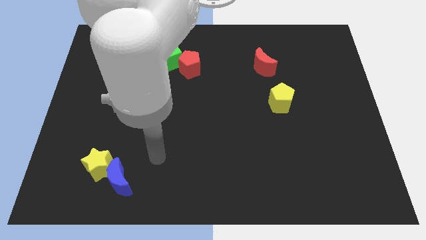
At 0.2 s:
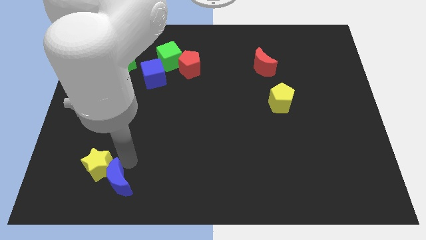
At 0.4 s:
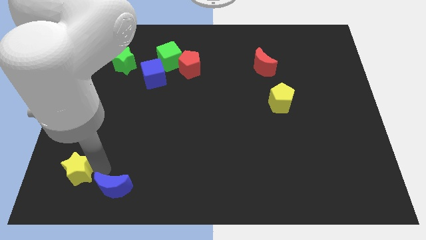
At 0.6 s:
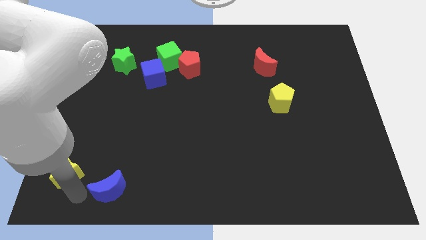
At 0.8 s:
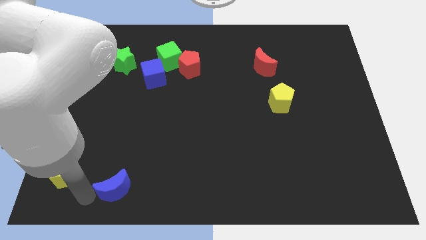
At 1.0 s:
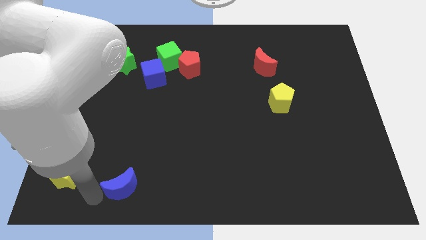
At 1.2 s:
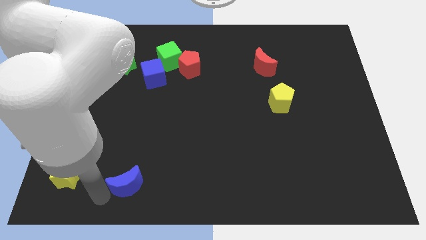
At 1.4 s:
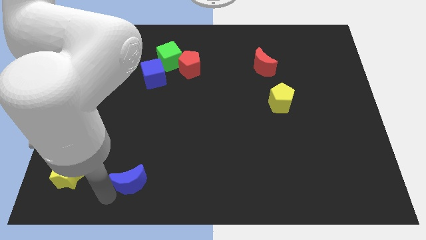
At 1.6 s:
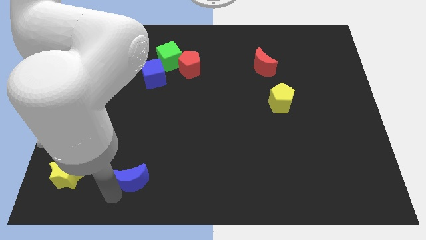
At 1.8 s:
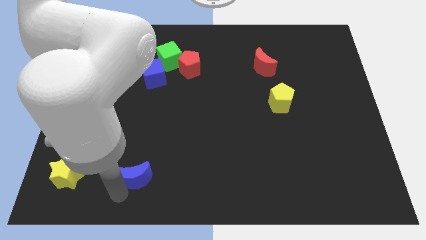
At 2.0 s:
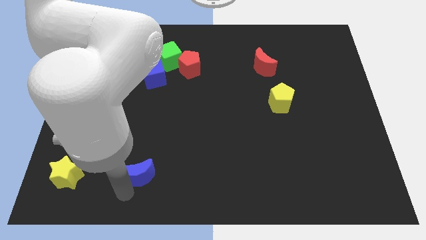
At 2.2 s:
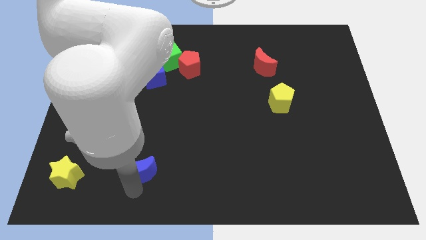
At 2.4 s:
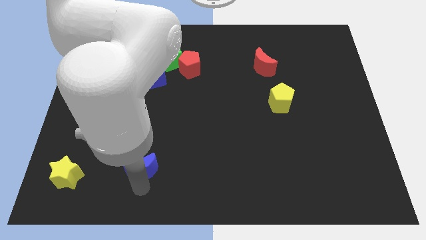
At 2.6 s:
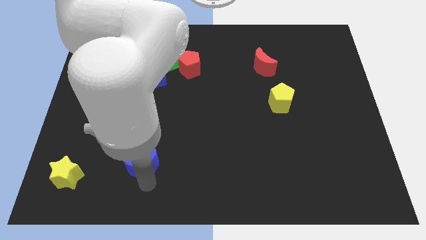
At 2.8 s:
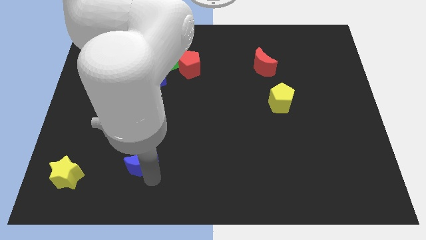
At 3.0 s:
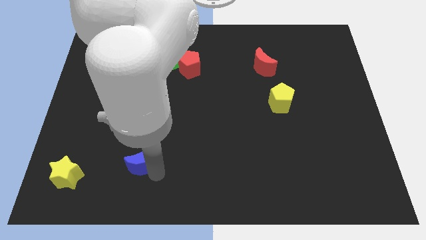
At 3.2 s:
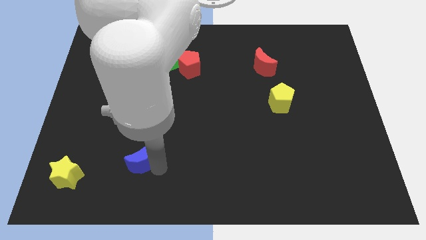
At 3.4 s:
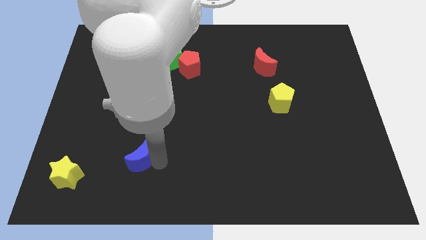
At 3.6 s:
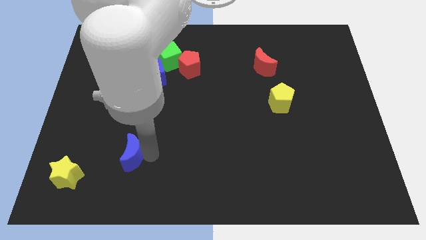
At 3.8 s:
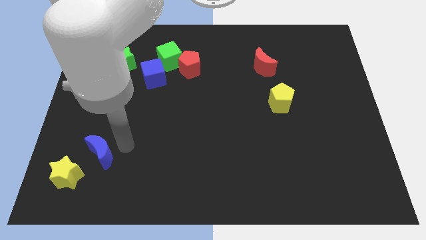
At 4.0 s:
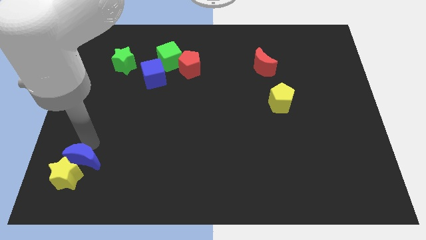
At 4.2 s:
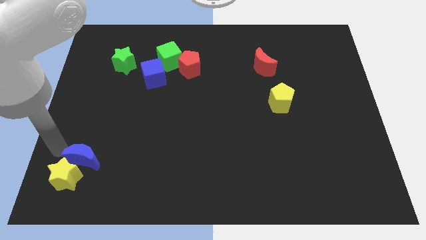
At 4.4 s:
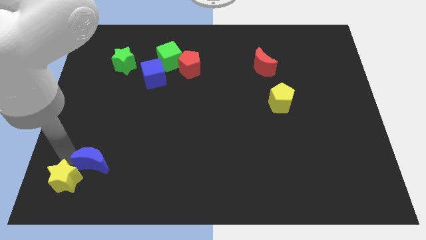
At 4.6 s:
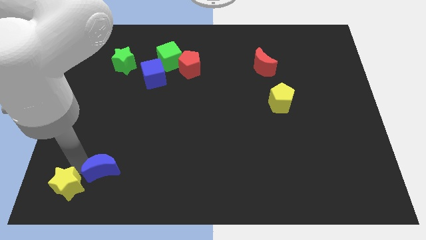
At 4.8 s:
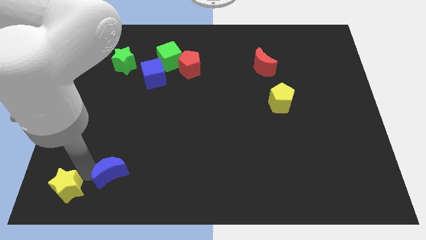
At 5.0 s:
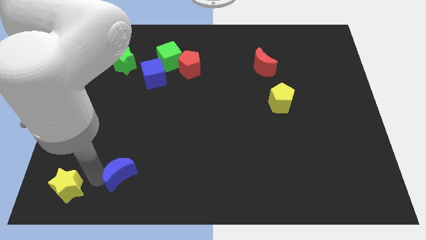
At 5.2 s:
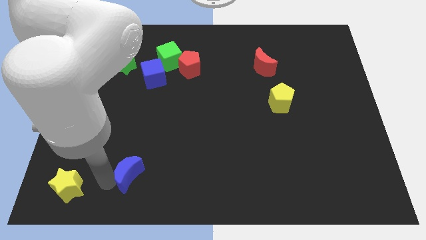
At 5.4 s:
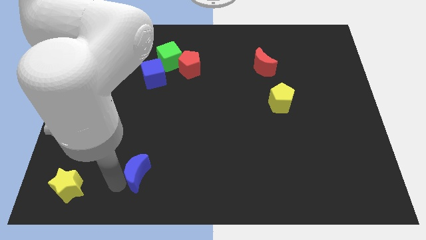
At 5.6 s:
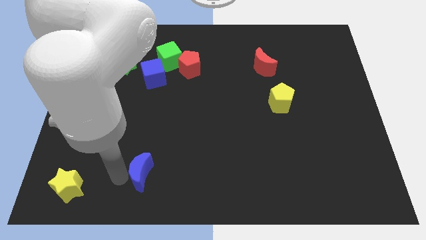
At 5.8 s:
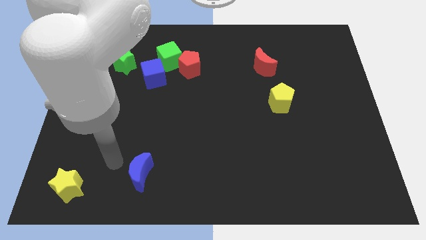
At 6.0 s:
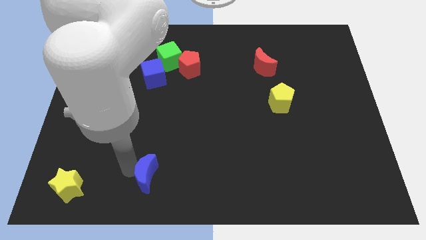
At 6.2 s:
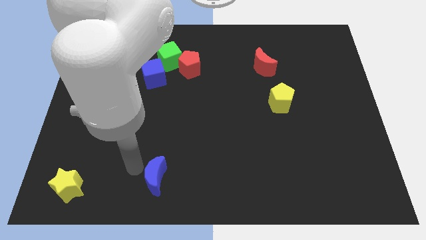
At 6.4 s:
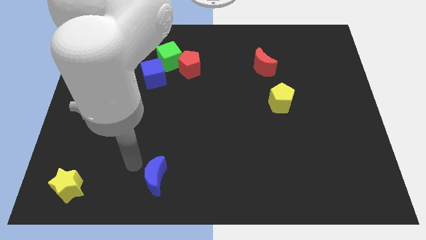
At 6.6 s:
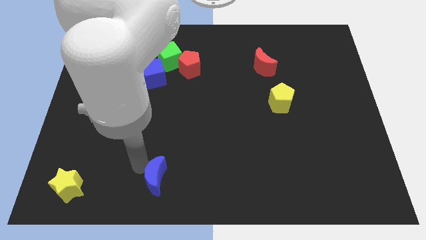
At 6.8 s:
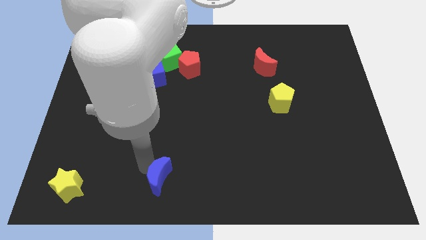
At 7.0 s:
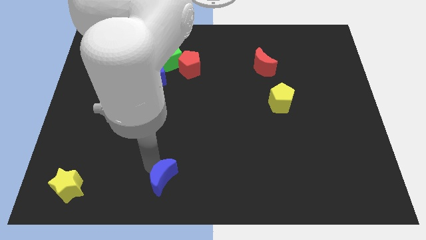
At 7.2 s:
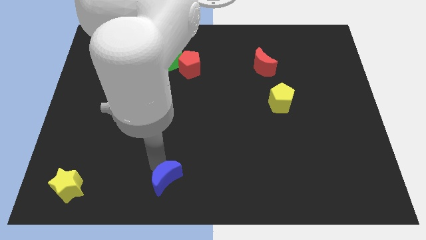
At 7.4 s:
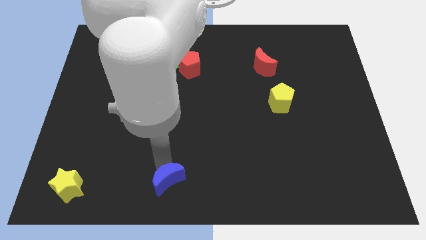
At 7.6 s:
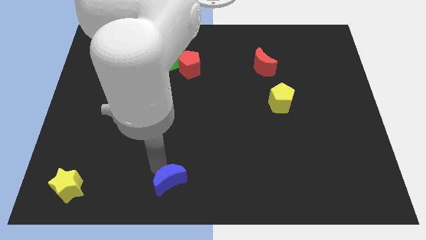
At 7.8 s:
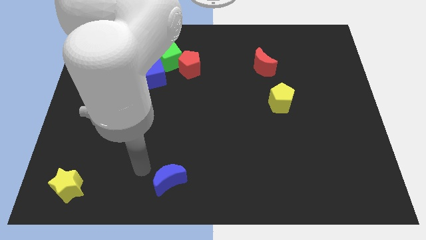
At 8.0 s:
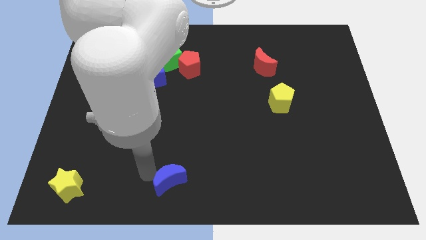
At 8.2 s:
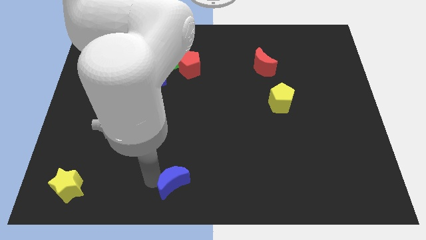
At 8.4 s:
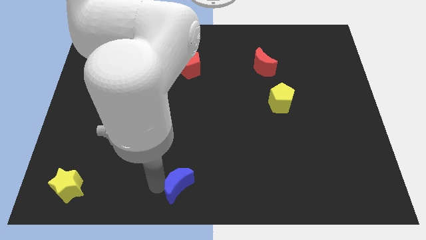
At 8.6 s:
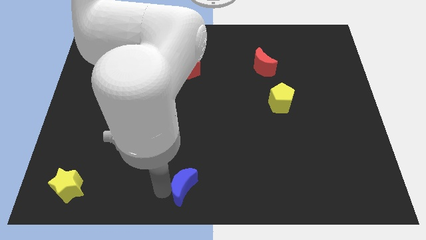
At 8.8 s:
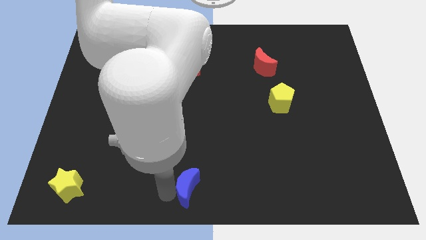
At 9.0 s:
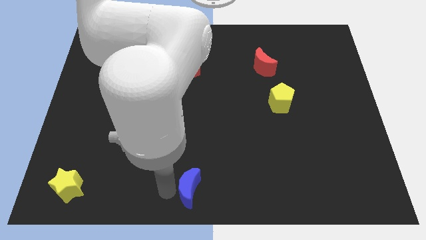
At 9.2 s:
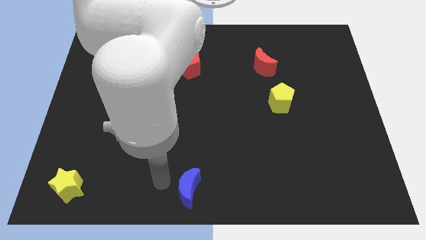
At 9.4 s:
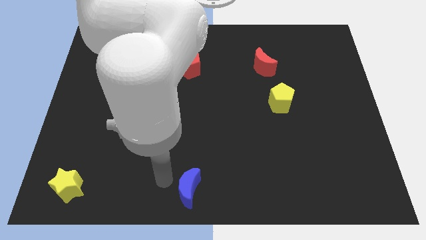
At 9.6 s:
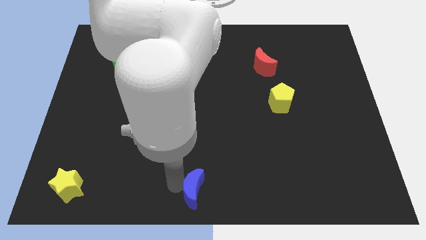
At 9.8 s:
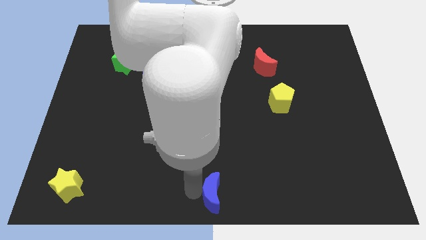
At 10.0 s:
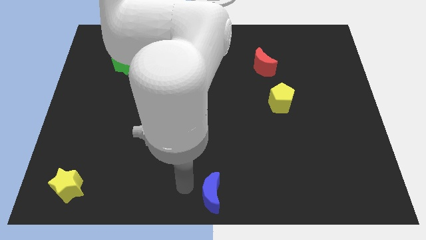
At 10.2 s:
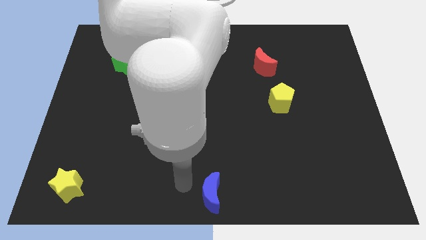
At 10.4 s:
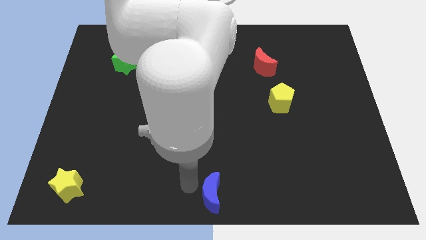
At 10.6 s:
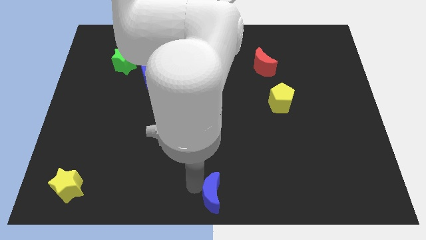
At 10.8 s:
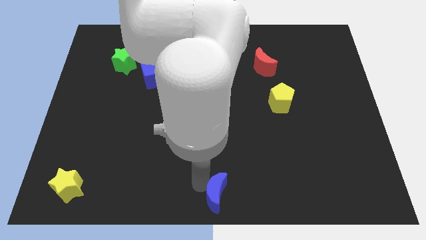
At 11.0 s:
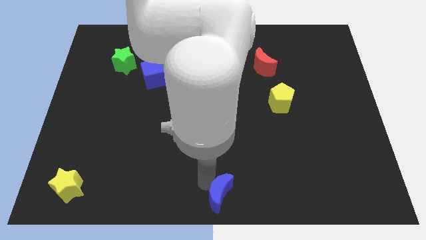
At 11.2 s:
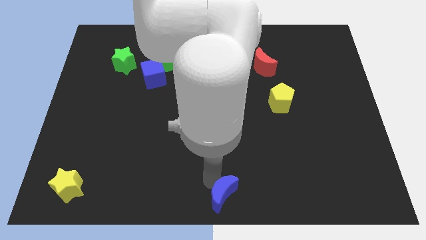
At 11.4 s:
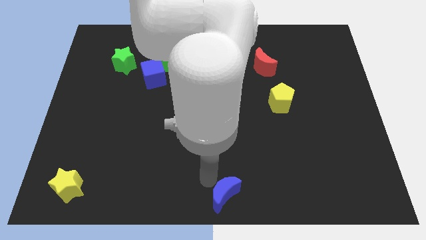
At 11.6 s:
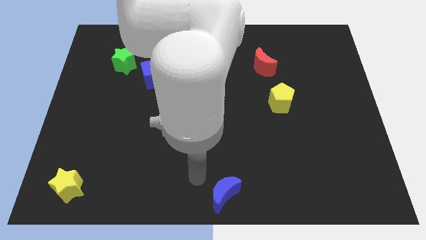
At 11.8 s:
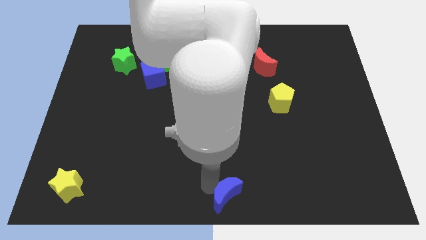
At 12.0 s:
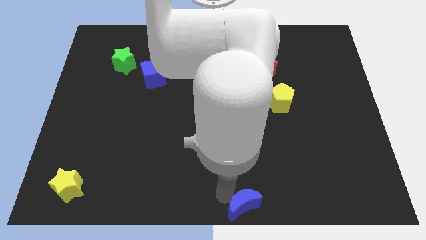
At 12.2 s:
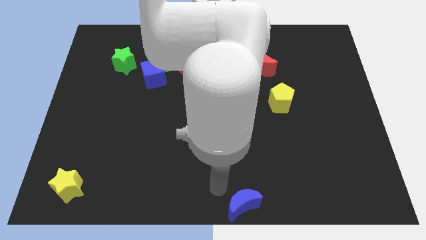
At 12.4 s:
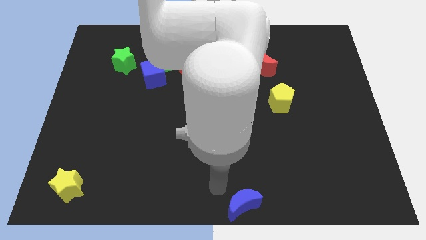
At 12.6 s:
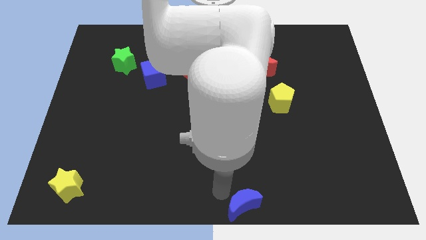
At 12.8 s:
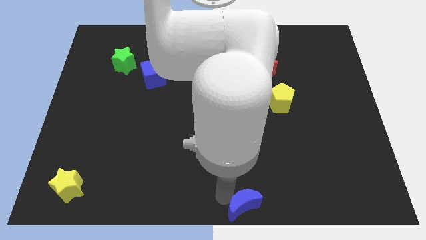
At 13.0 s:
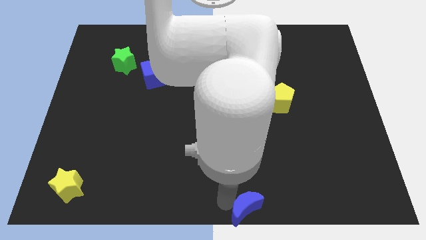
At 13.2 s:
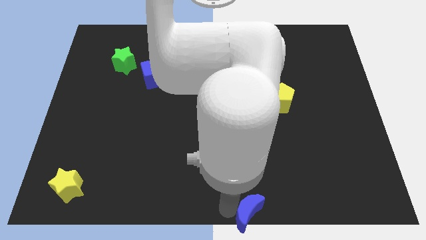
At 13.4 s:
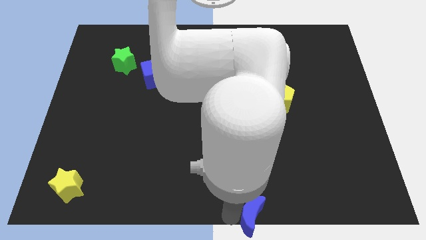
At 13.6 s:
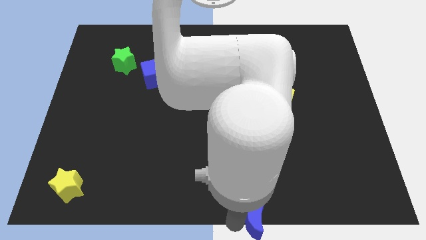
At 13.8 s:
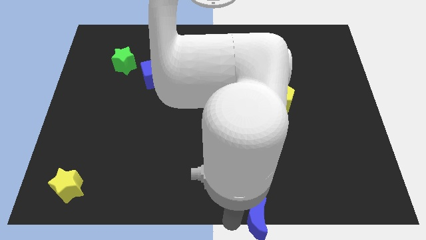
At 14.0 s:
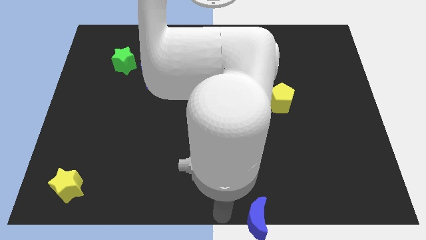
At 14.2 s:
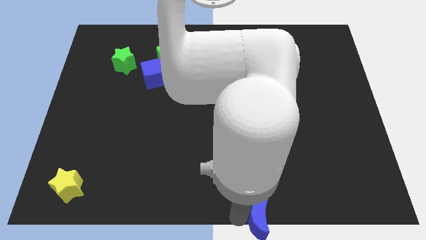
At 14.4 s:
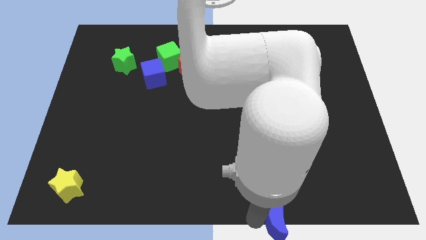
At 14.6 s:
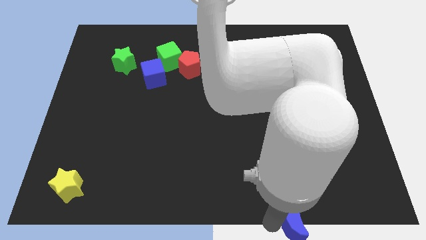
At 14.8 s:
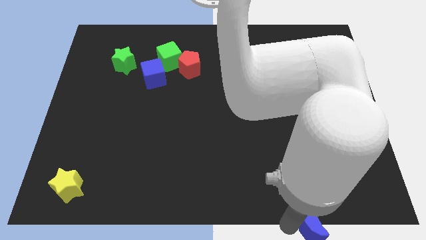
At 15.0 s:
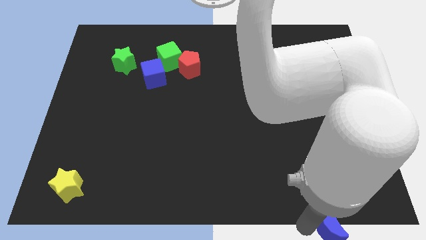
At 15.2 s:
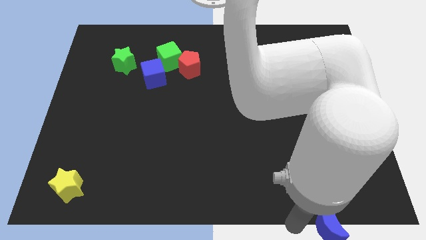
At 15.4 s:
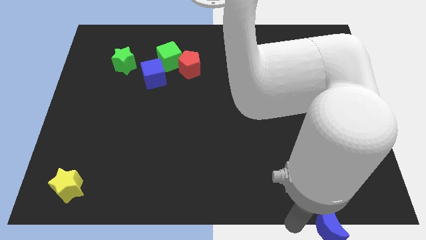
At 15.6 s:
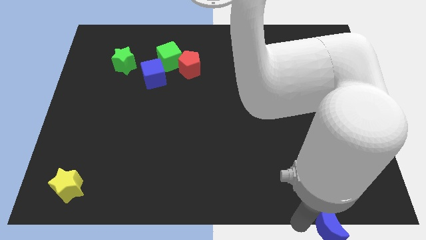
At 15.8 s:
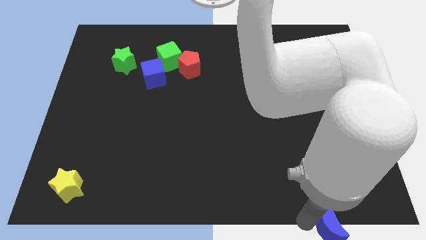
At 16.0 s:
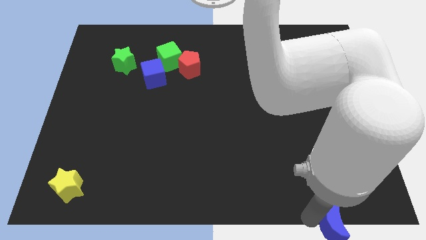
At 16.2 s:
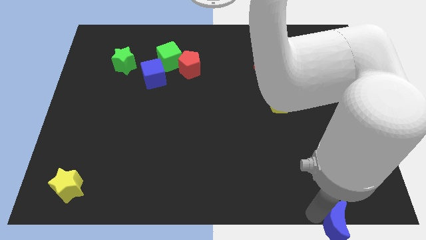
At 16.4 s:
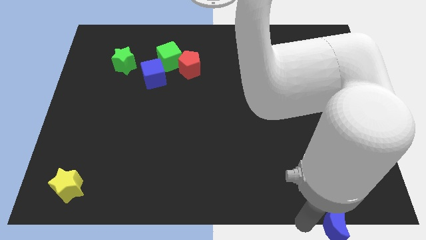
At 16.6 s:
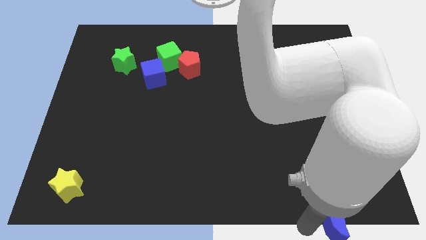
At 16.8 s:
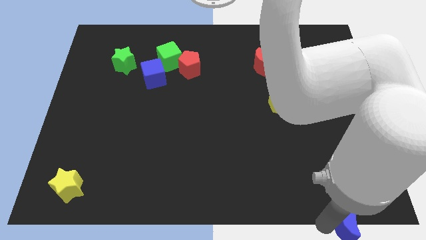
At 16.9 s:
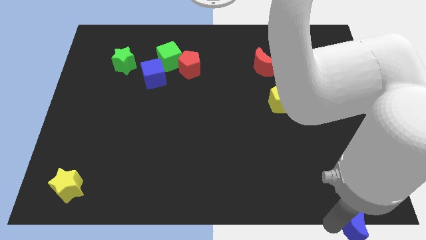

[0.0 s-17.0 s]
move the blue moon to the bottom right of the board
